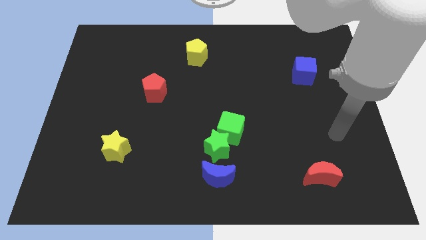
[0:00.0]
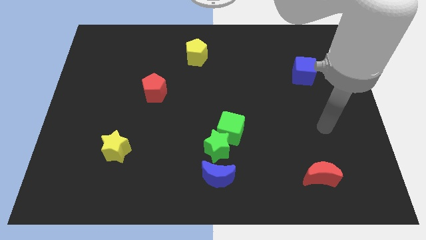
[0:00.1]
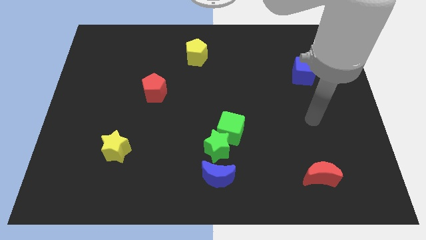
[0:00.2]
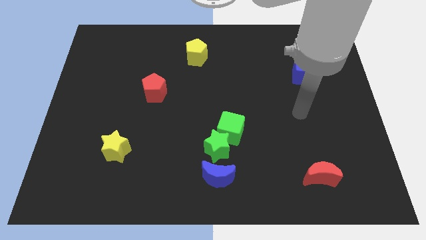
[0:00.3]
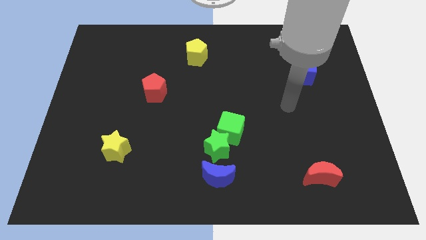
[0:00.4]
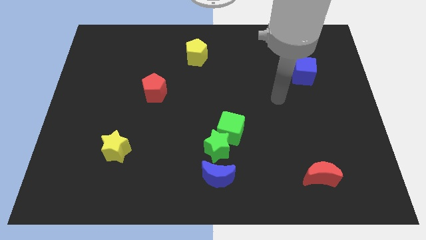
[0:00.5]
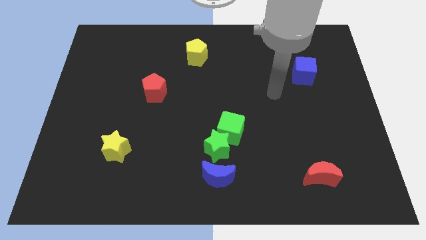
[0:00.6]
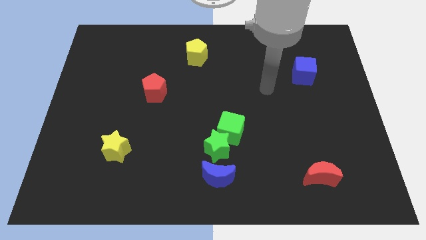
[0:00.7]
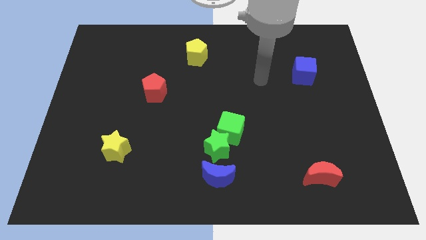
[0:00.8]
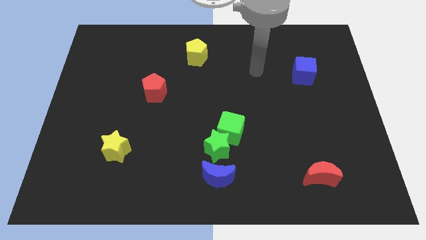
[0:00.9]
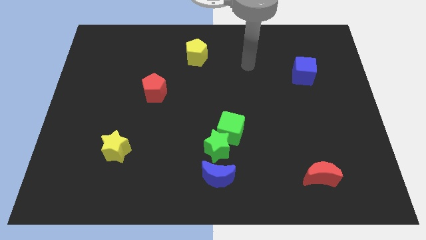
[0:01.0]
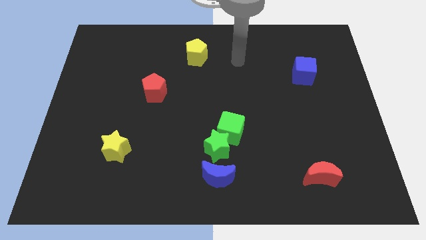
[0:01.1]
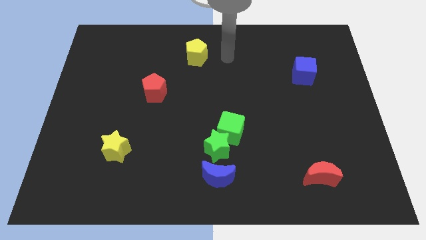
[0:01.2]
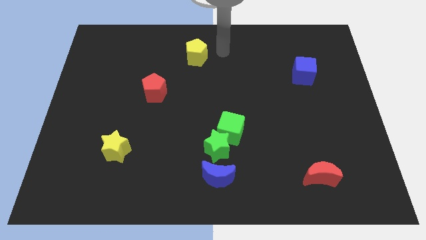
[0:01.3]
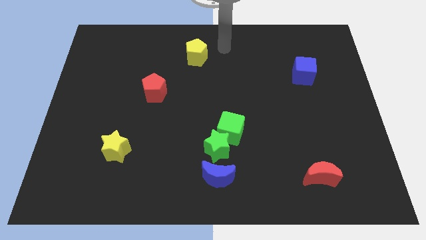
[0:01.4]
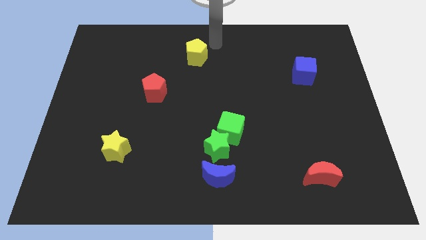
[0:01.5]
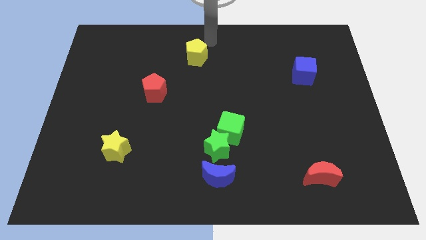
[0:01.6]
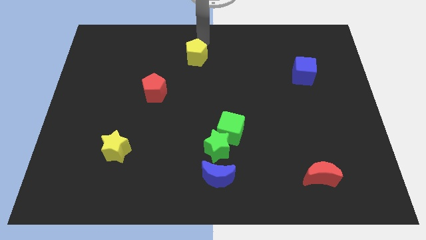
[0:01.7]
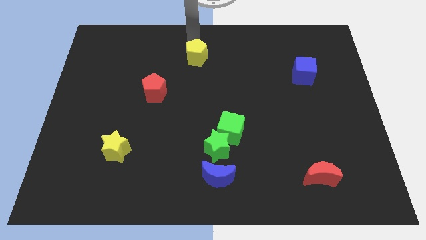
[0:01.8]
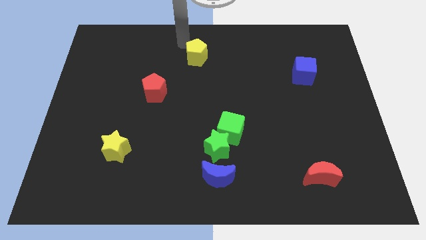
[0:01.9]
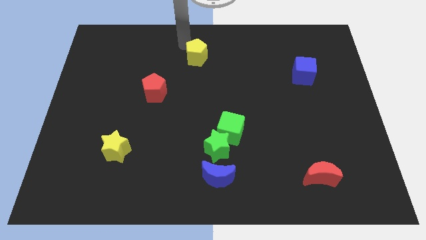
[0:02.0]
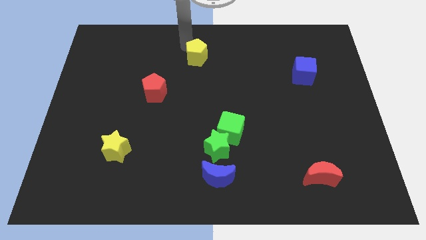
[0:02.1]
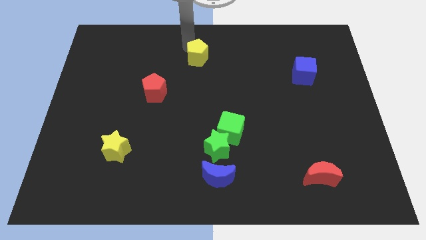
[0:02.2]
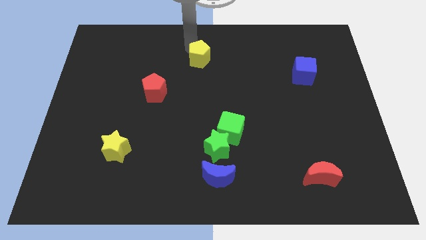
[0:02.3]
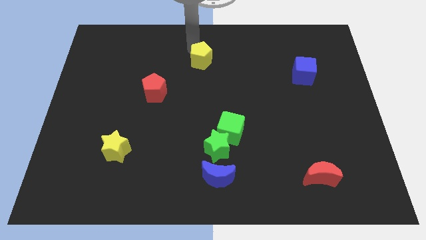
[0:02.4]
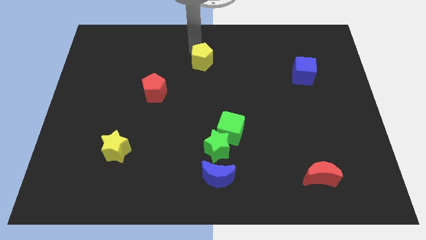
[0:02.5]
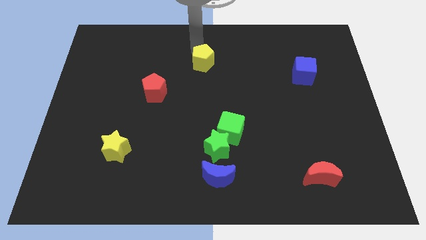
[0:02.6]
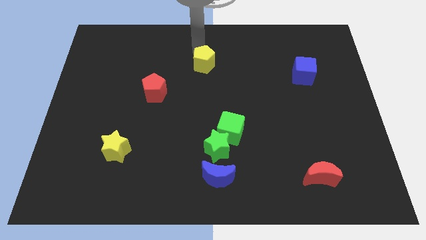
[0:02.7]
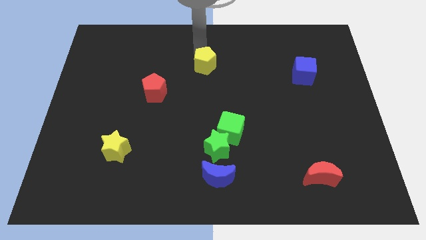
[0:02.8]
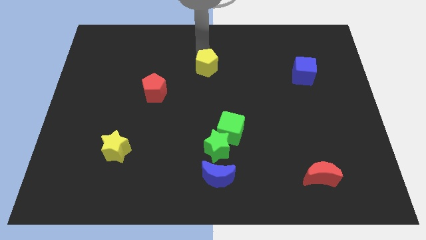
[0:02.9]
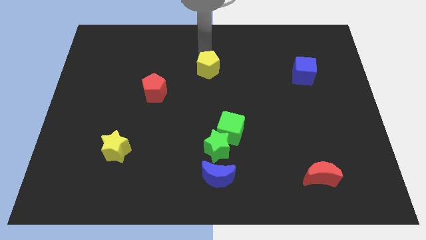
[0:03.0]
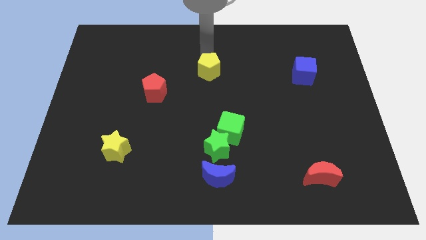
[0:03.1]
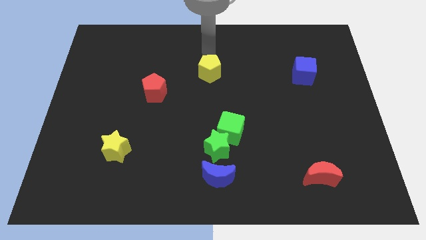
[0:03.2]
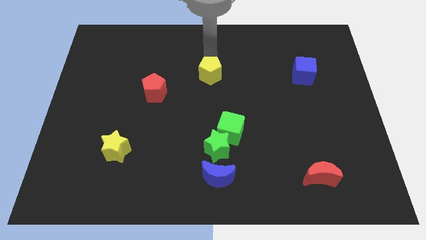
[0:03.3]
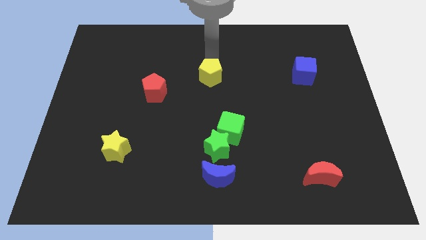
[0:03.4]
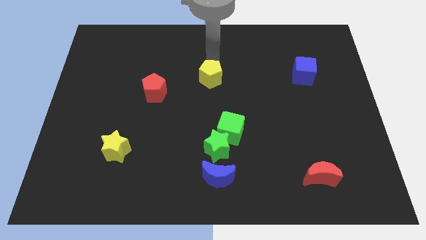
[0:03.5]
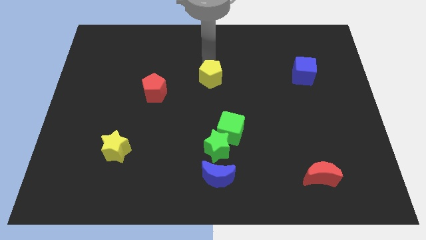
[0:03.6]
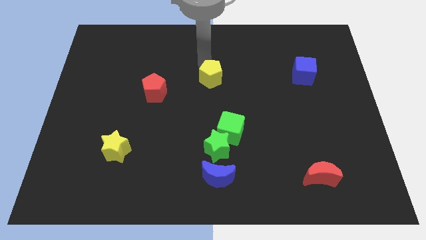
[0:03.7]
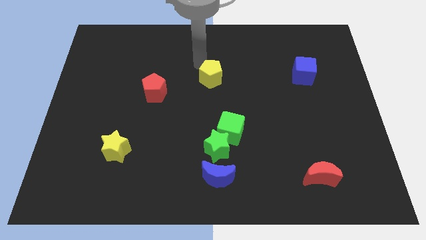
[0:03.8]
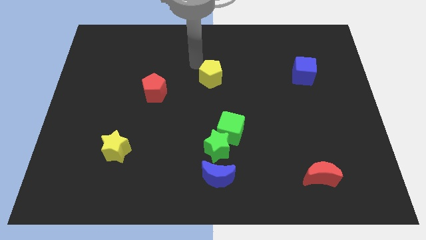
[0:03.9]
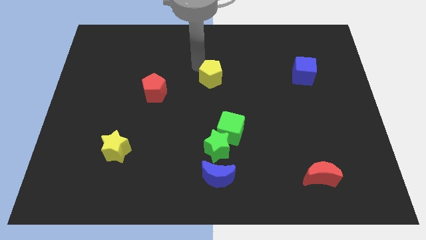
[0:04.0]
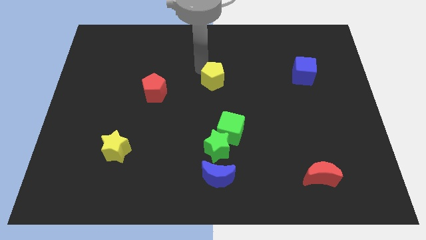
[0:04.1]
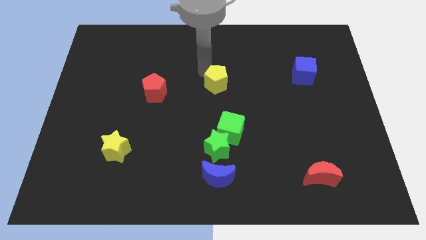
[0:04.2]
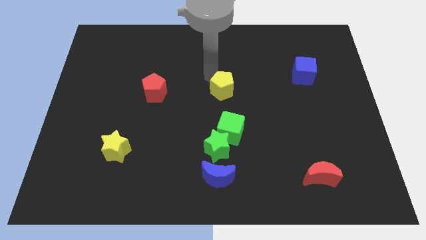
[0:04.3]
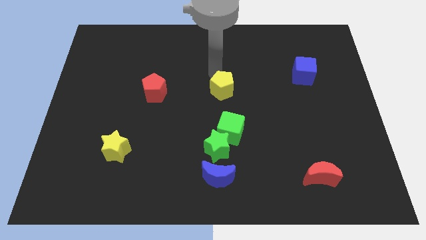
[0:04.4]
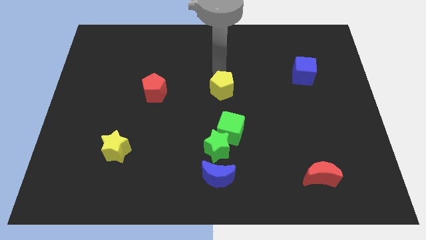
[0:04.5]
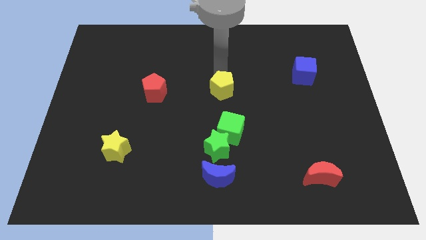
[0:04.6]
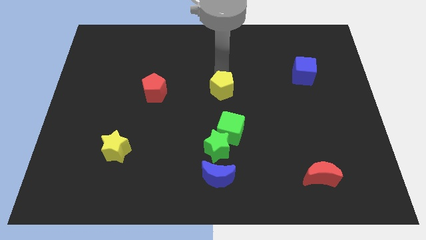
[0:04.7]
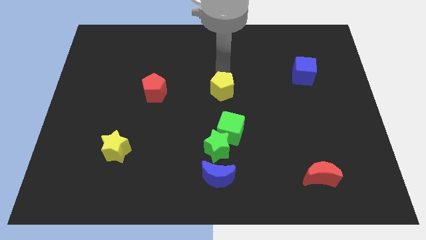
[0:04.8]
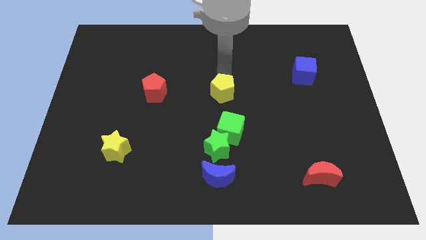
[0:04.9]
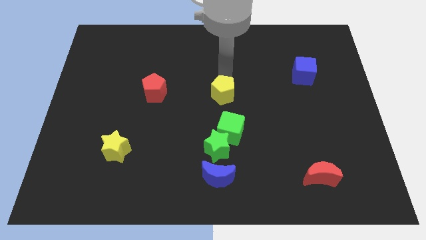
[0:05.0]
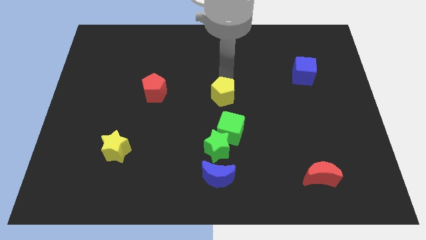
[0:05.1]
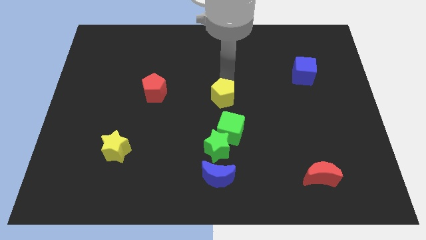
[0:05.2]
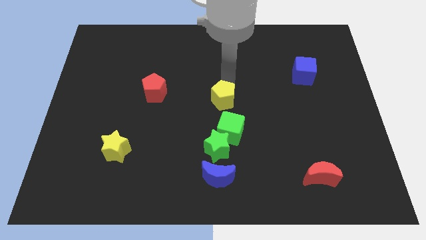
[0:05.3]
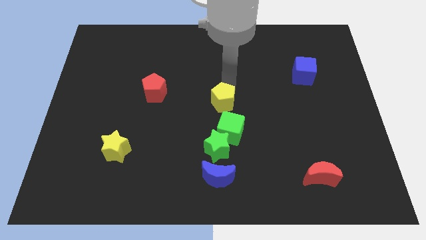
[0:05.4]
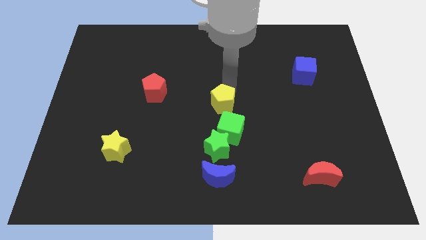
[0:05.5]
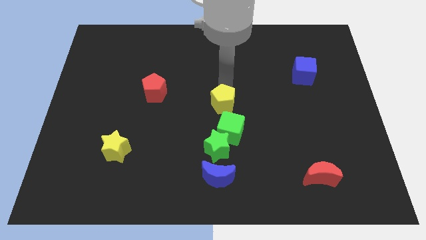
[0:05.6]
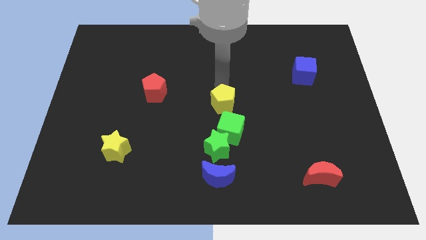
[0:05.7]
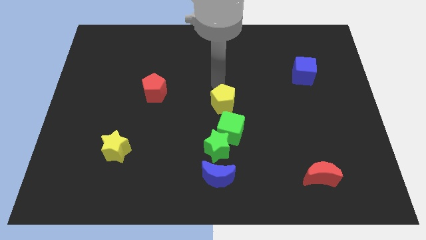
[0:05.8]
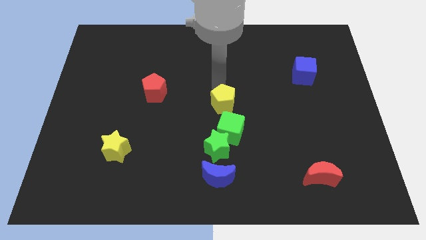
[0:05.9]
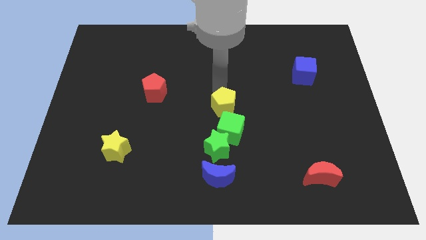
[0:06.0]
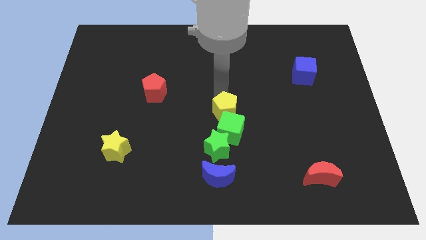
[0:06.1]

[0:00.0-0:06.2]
push the yellow pentagon close to the green cube

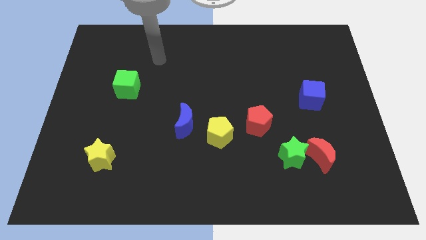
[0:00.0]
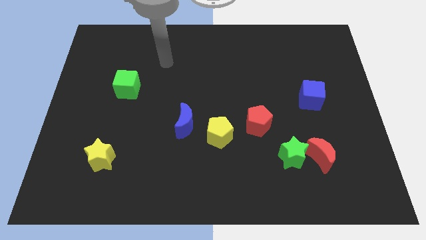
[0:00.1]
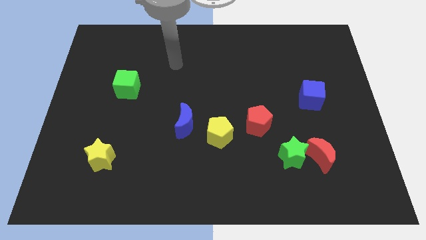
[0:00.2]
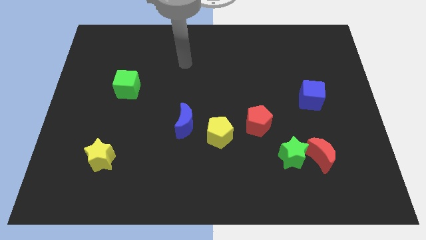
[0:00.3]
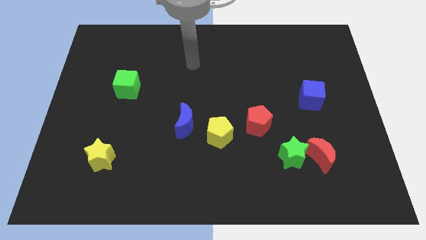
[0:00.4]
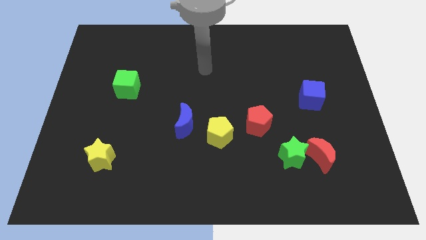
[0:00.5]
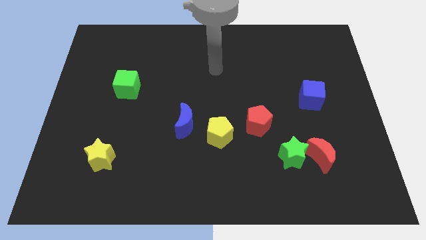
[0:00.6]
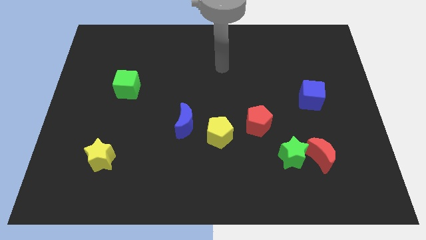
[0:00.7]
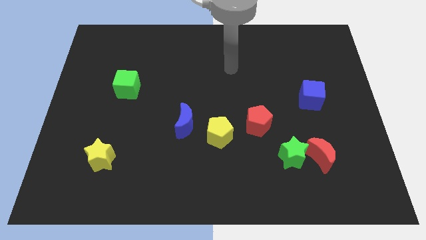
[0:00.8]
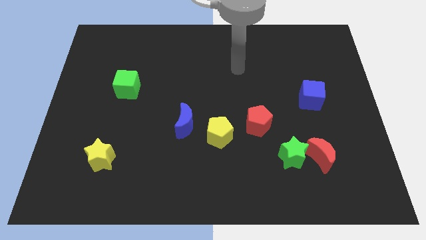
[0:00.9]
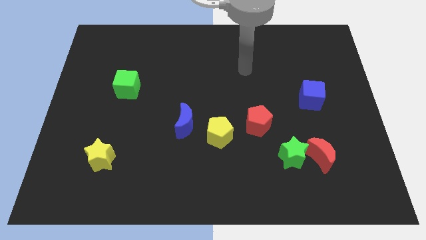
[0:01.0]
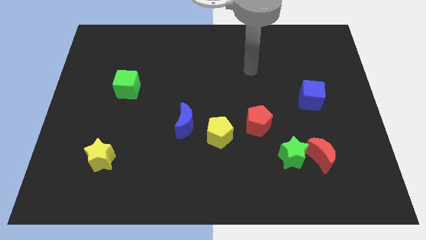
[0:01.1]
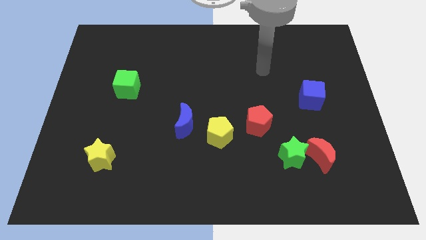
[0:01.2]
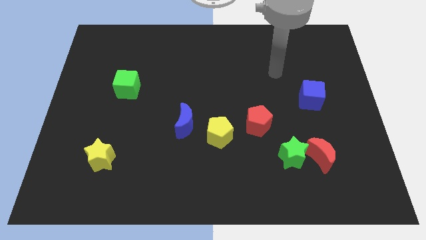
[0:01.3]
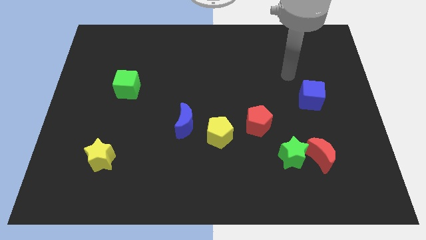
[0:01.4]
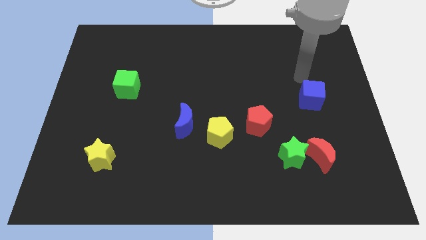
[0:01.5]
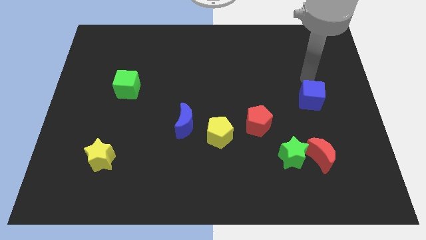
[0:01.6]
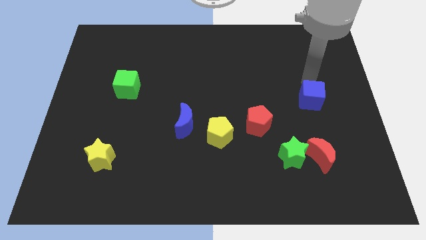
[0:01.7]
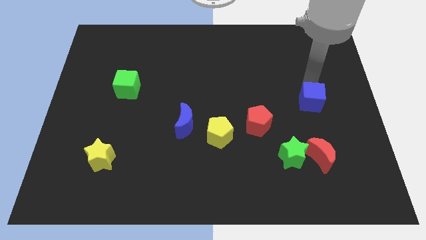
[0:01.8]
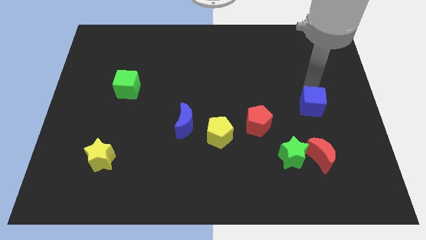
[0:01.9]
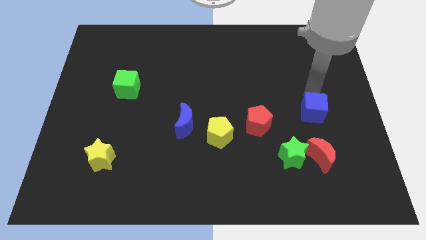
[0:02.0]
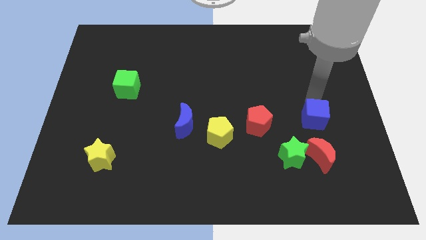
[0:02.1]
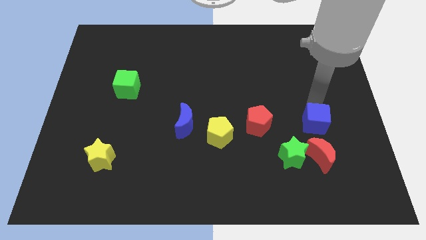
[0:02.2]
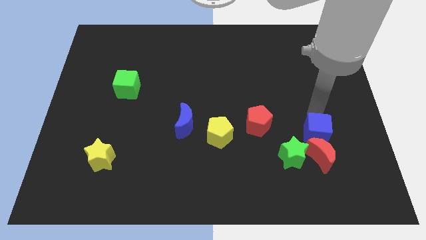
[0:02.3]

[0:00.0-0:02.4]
put the blue cube close to the red moon
